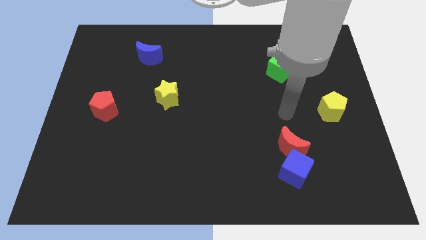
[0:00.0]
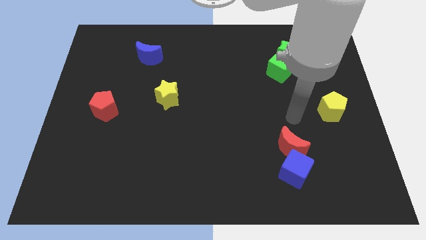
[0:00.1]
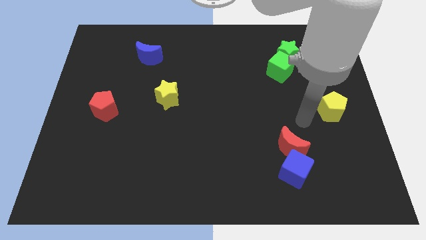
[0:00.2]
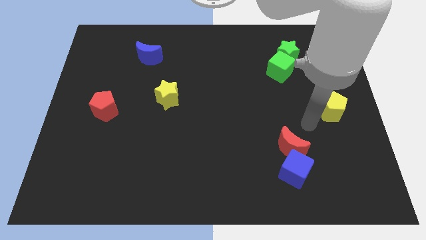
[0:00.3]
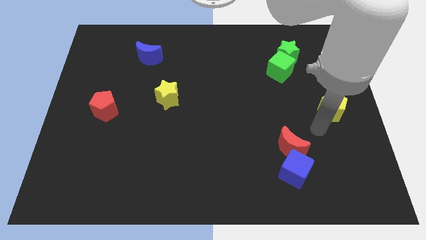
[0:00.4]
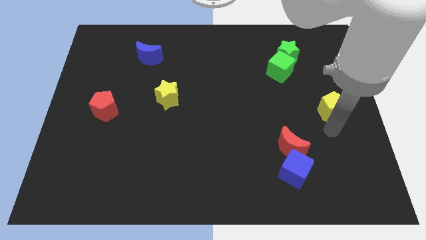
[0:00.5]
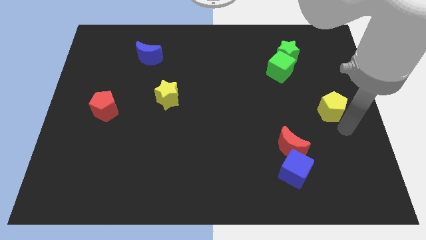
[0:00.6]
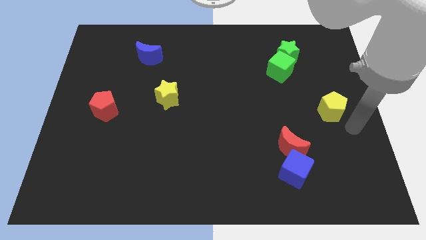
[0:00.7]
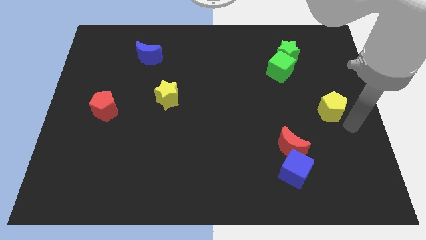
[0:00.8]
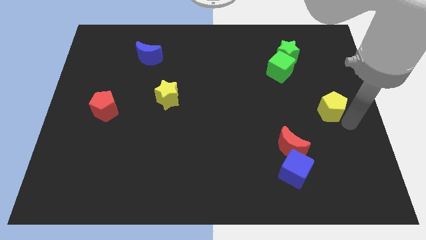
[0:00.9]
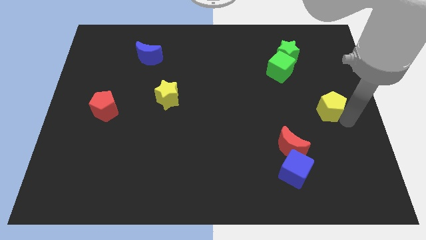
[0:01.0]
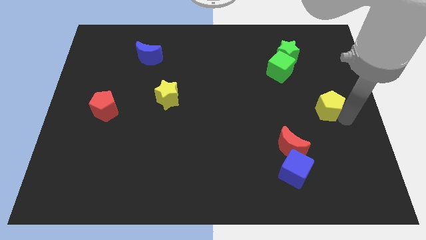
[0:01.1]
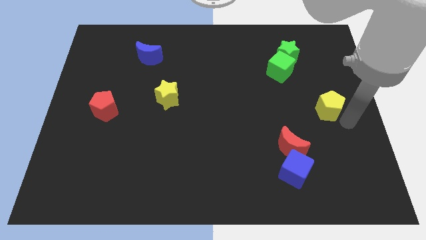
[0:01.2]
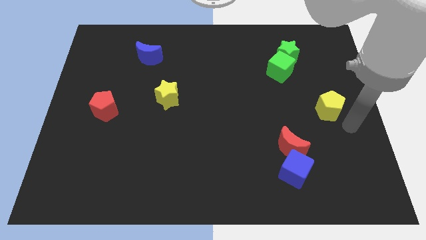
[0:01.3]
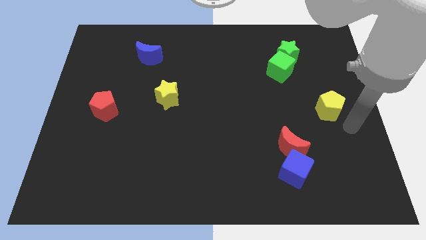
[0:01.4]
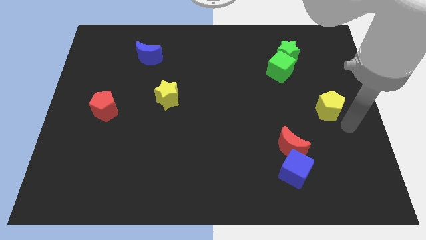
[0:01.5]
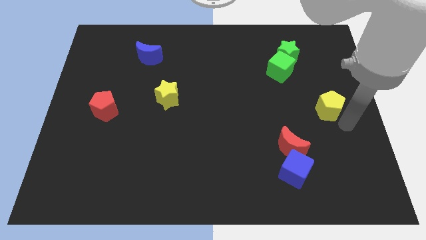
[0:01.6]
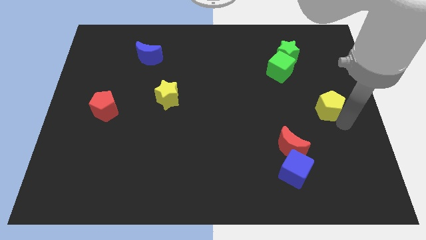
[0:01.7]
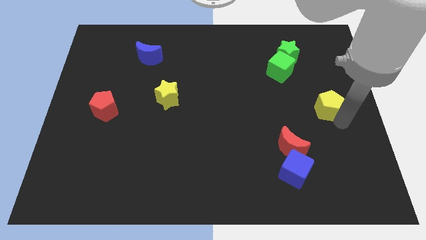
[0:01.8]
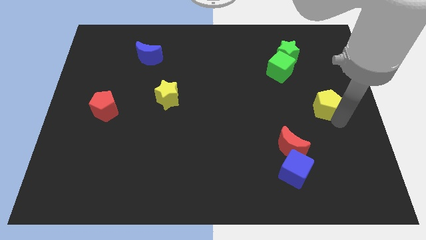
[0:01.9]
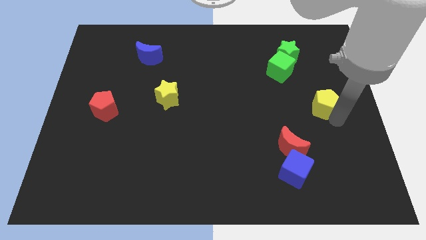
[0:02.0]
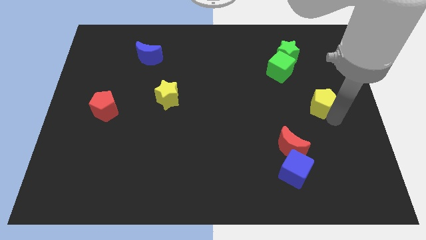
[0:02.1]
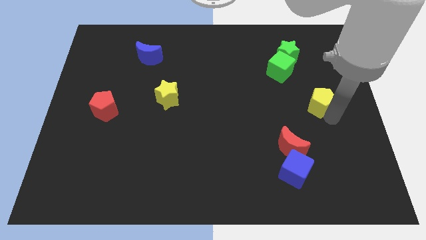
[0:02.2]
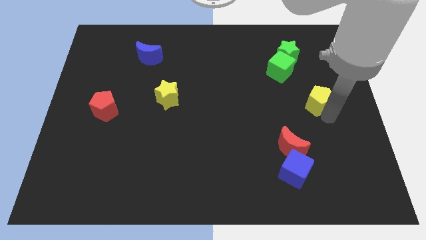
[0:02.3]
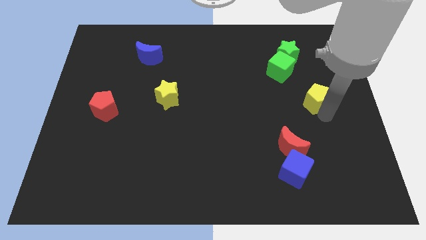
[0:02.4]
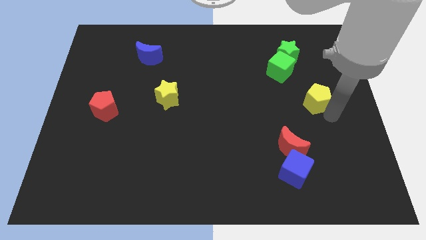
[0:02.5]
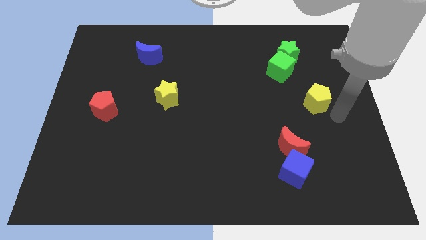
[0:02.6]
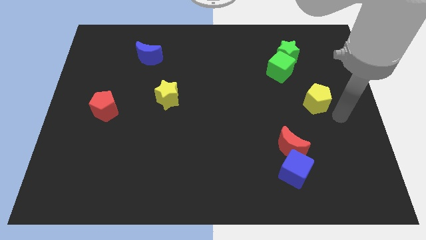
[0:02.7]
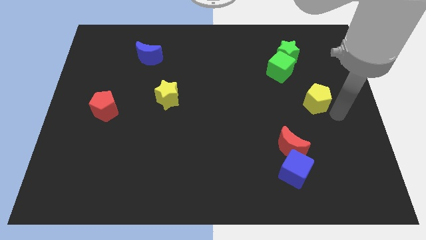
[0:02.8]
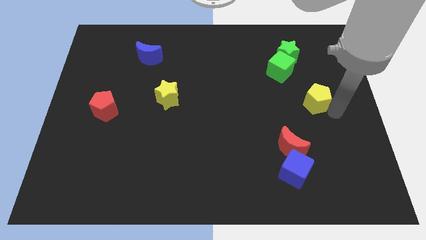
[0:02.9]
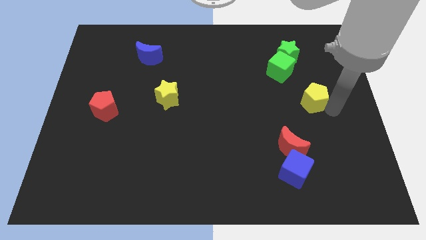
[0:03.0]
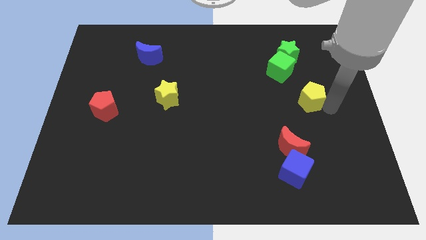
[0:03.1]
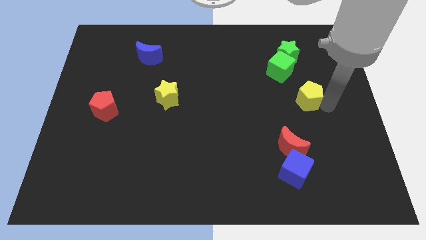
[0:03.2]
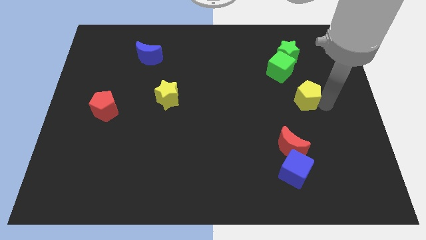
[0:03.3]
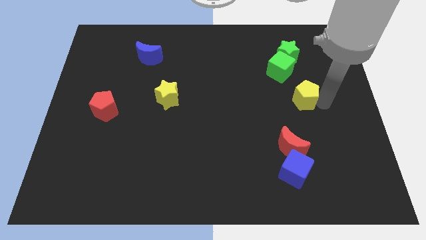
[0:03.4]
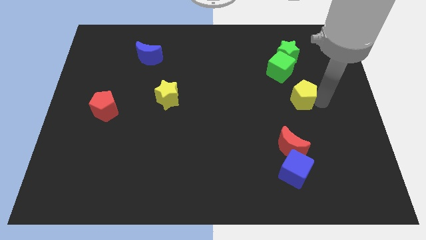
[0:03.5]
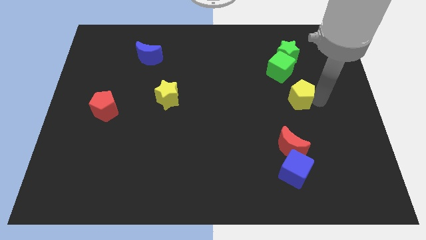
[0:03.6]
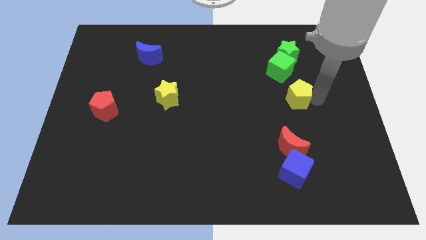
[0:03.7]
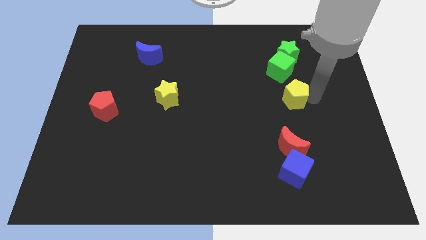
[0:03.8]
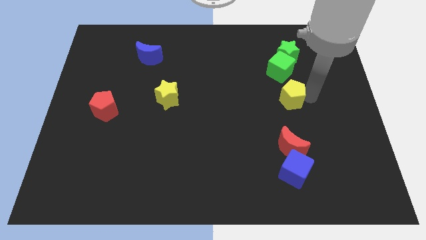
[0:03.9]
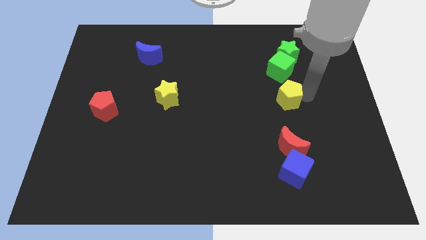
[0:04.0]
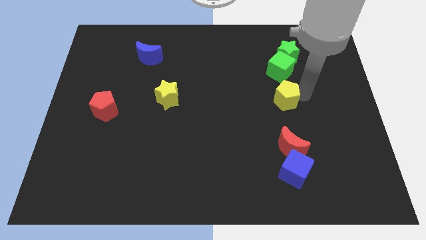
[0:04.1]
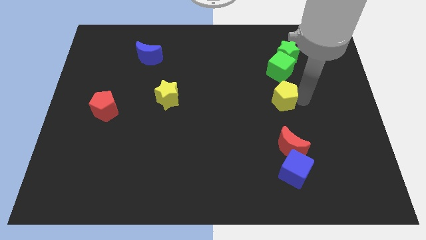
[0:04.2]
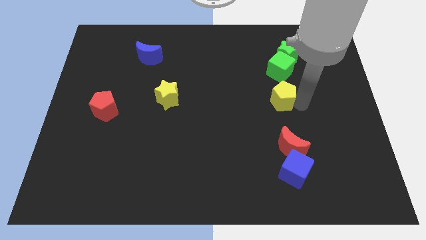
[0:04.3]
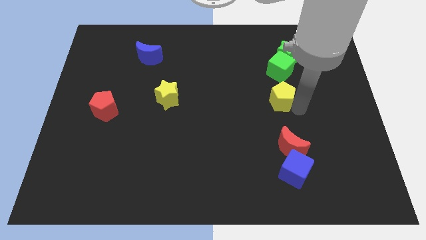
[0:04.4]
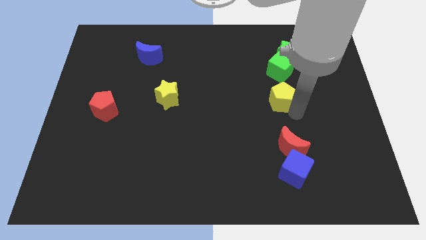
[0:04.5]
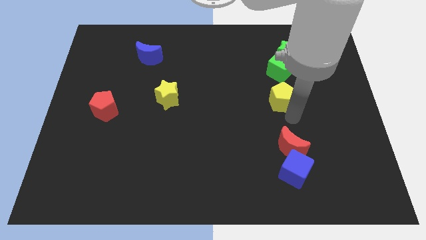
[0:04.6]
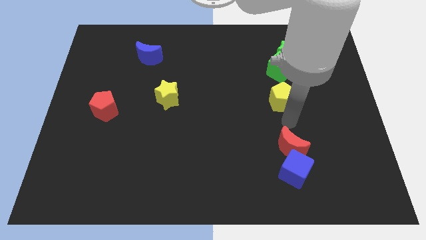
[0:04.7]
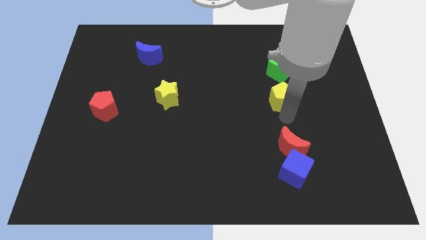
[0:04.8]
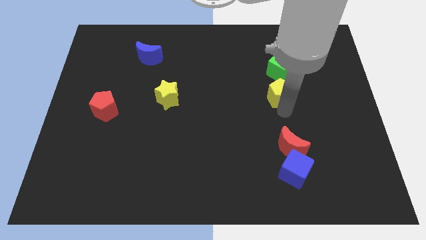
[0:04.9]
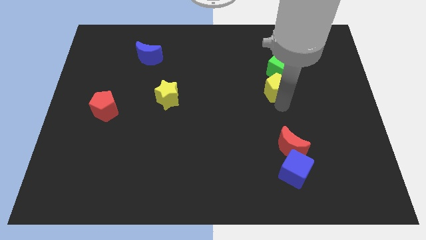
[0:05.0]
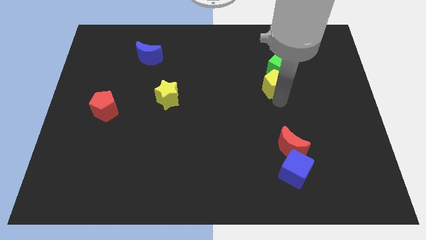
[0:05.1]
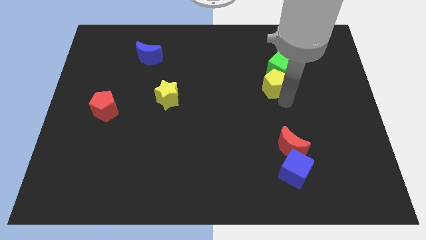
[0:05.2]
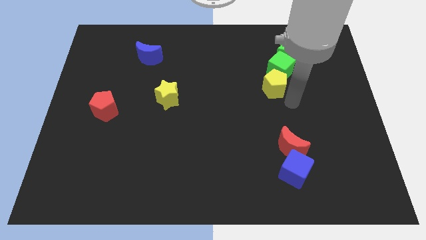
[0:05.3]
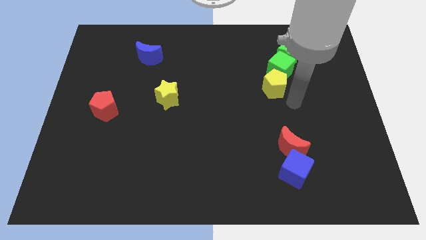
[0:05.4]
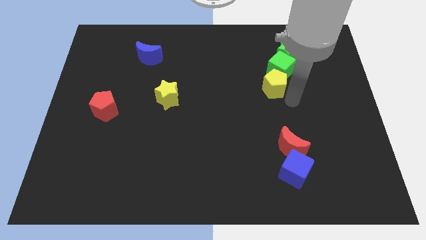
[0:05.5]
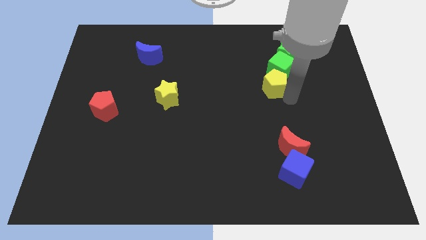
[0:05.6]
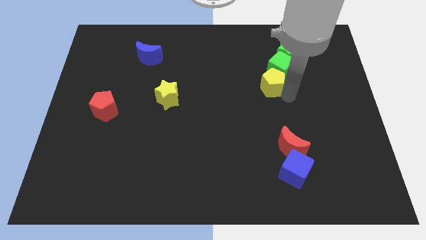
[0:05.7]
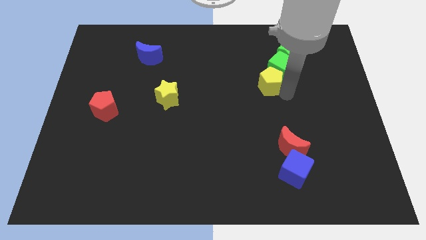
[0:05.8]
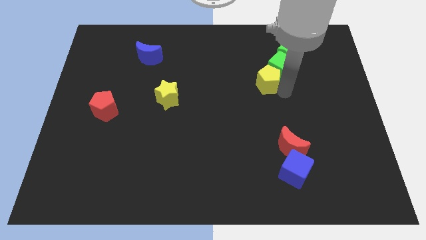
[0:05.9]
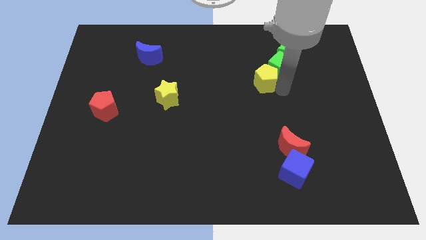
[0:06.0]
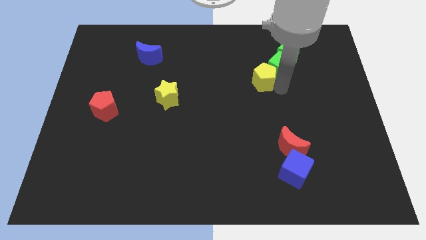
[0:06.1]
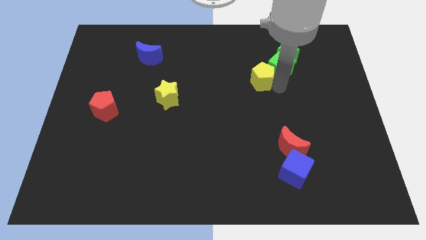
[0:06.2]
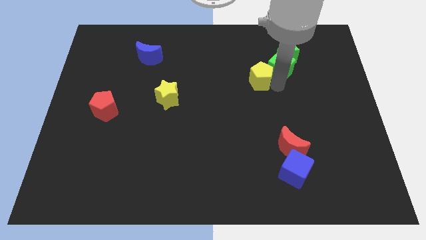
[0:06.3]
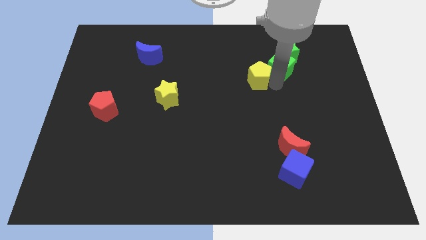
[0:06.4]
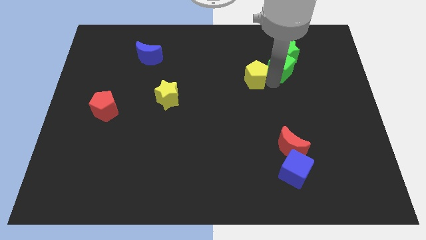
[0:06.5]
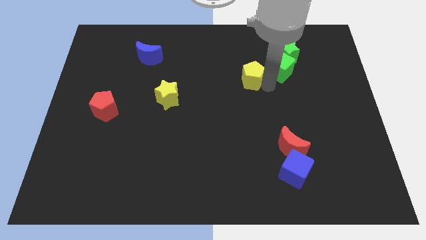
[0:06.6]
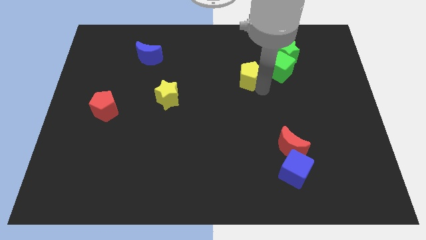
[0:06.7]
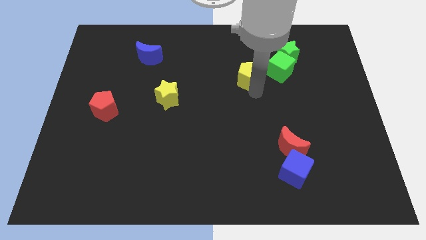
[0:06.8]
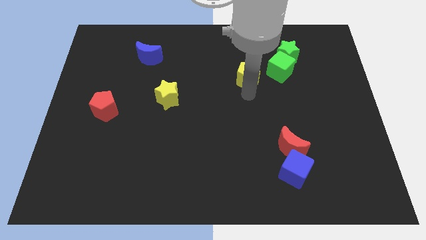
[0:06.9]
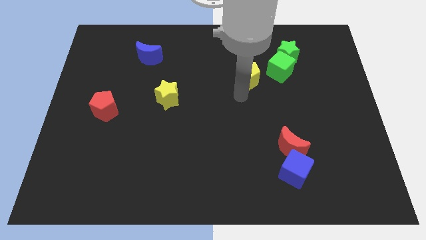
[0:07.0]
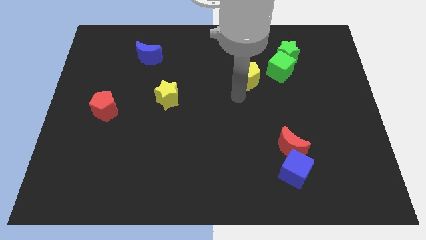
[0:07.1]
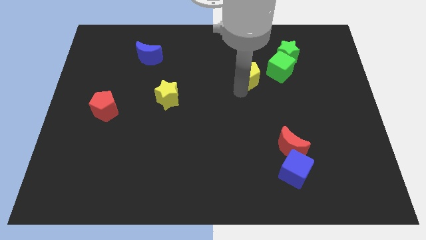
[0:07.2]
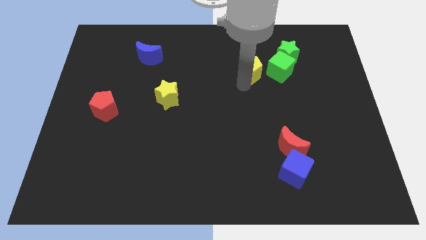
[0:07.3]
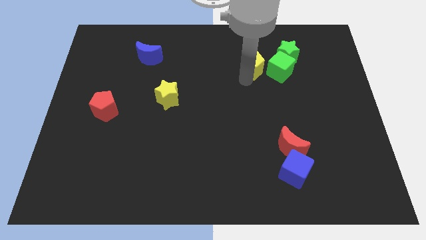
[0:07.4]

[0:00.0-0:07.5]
slide the yellow pentagon to the top left side of the green cube

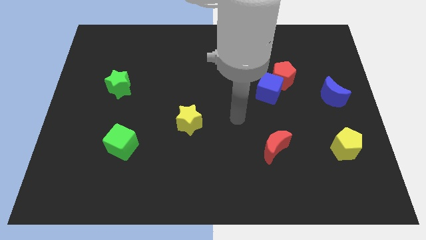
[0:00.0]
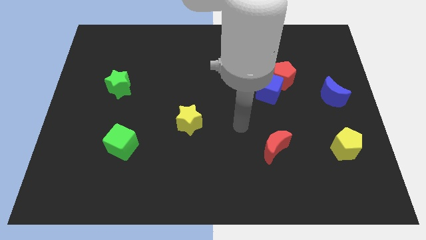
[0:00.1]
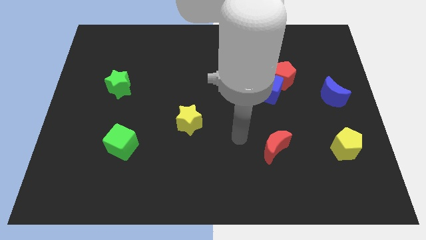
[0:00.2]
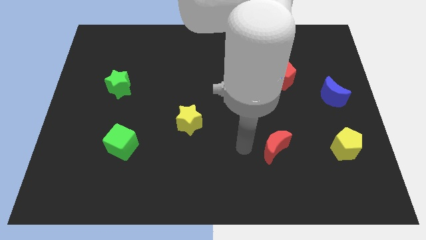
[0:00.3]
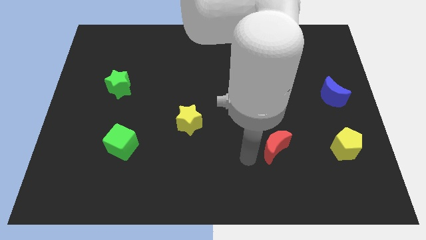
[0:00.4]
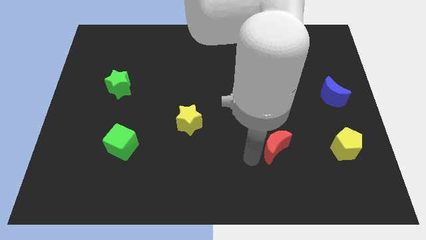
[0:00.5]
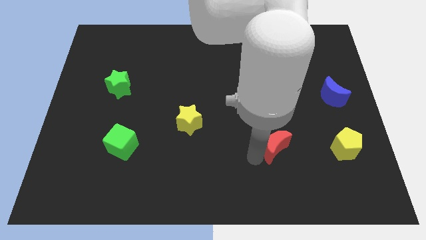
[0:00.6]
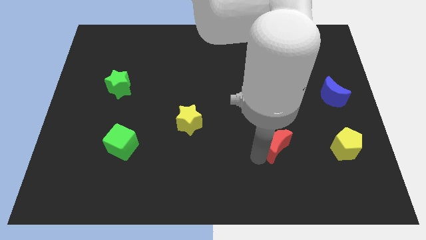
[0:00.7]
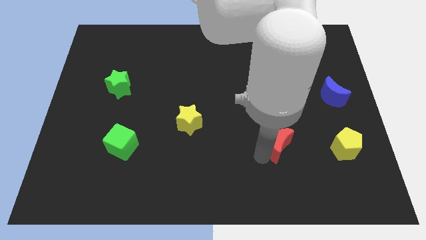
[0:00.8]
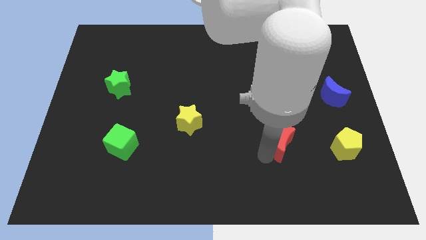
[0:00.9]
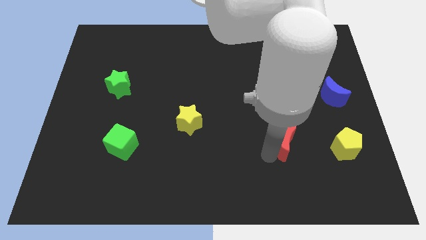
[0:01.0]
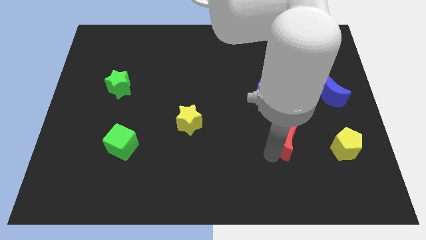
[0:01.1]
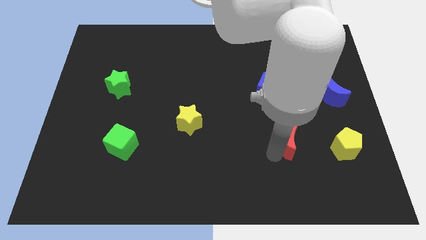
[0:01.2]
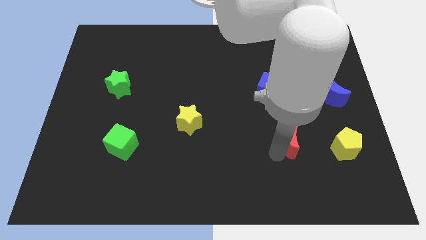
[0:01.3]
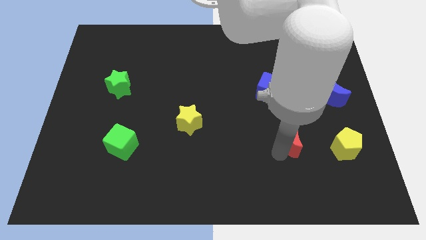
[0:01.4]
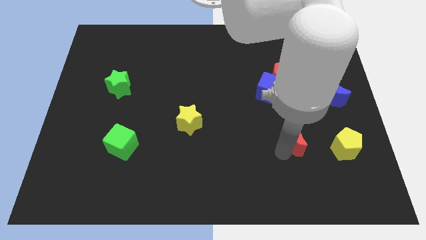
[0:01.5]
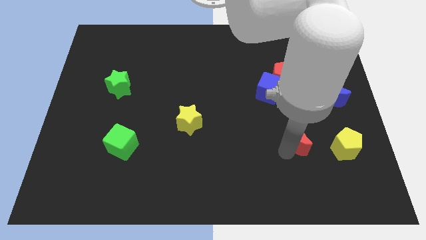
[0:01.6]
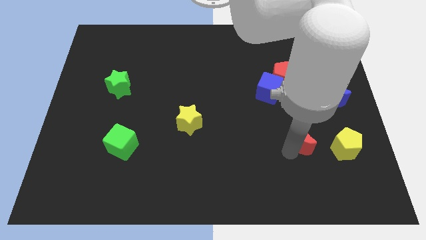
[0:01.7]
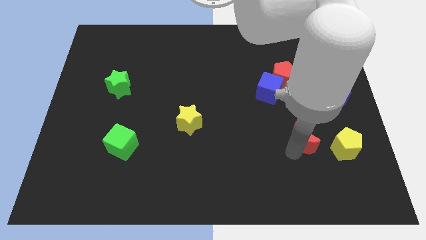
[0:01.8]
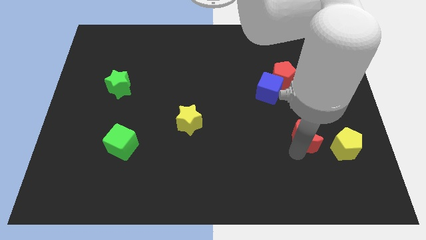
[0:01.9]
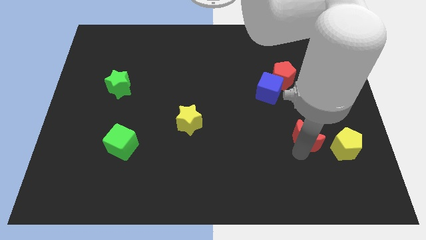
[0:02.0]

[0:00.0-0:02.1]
push the red moon to the top left side of the yellow pentagon
